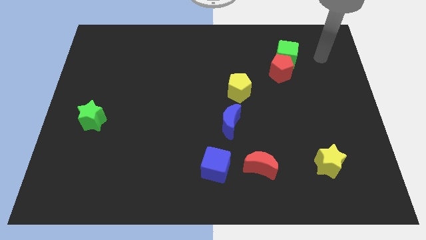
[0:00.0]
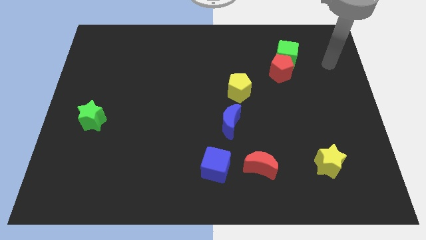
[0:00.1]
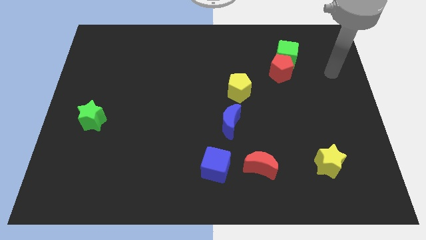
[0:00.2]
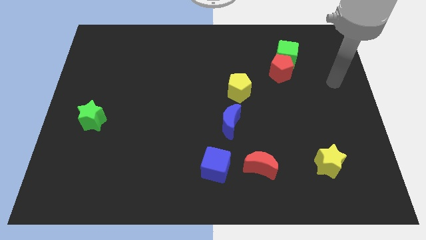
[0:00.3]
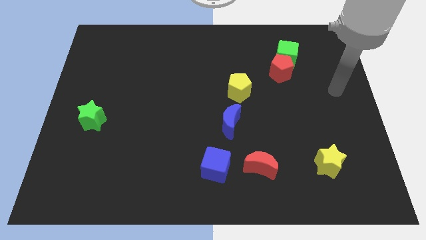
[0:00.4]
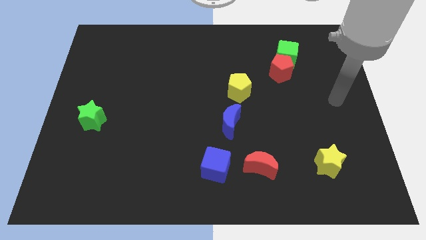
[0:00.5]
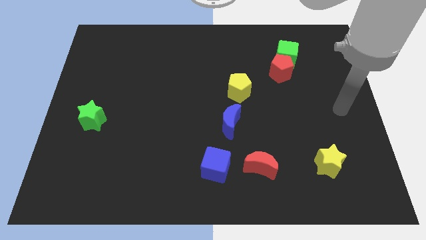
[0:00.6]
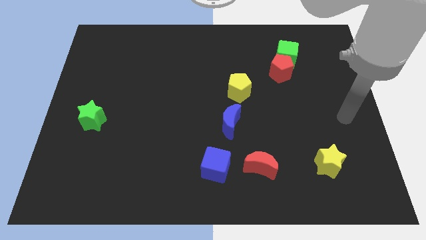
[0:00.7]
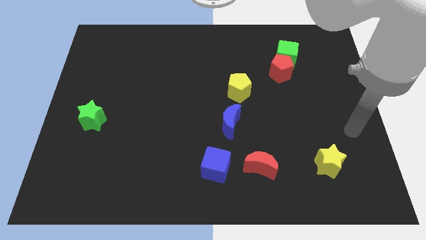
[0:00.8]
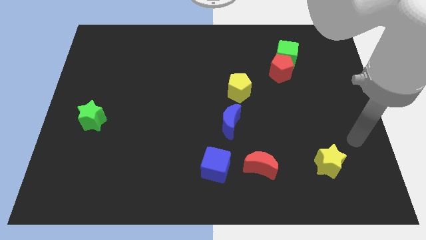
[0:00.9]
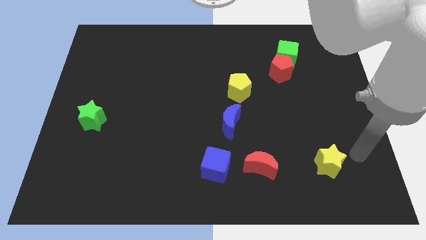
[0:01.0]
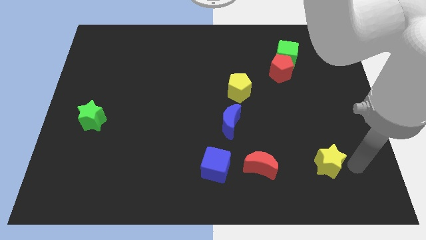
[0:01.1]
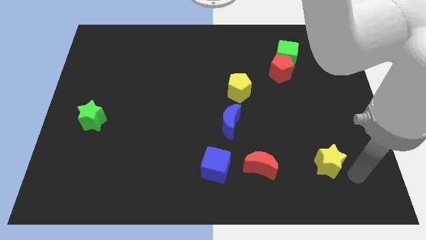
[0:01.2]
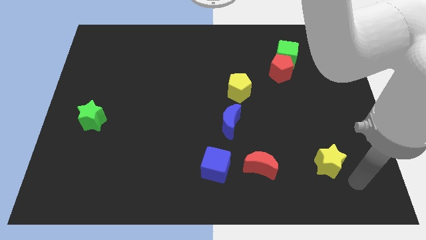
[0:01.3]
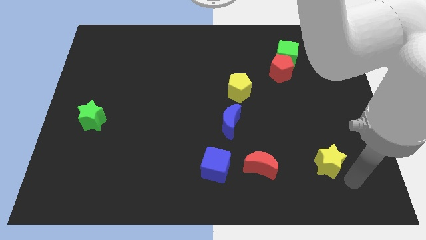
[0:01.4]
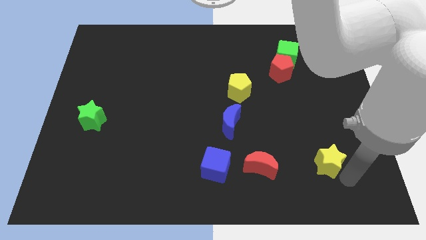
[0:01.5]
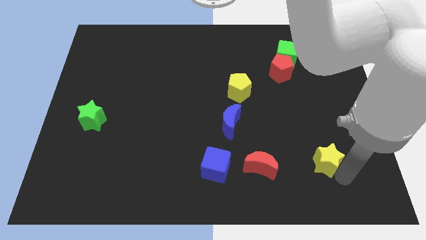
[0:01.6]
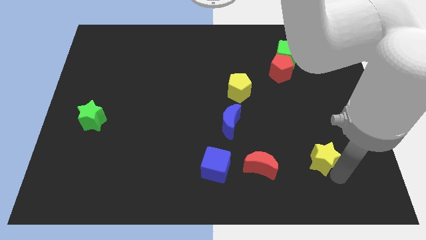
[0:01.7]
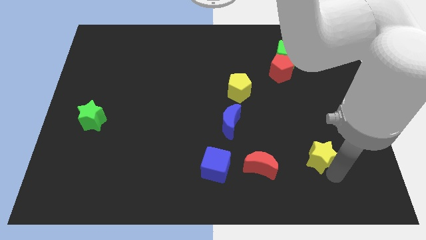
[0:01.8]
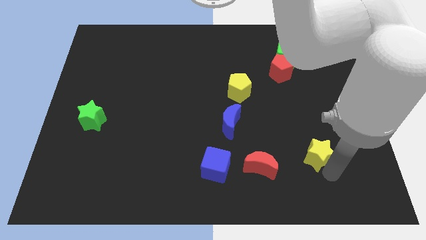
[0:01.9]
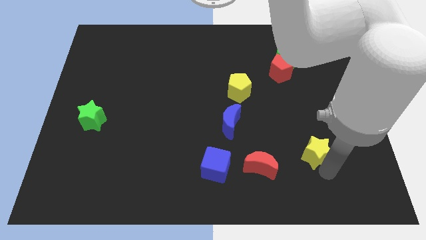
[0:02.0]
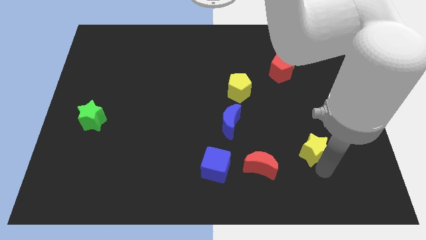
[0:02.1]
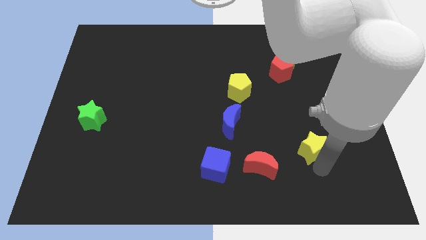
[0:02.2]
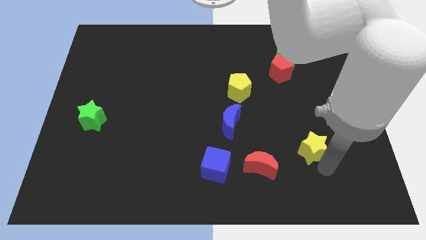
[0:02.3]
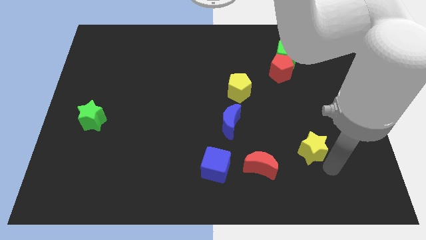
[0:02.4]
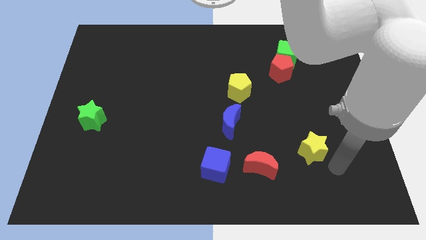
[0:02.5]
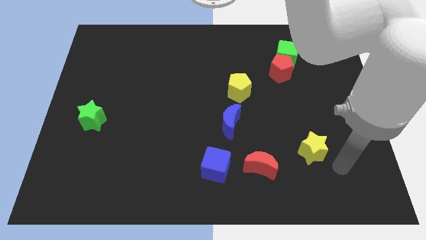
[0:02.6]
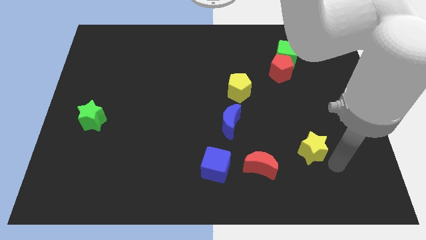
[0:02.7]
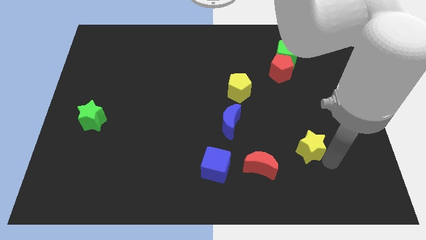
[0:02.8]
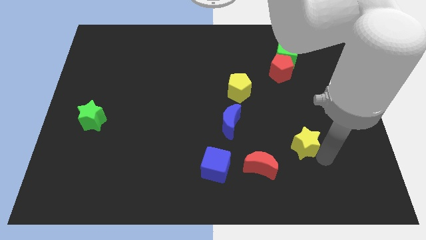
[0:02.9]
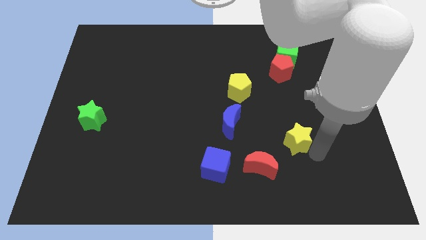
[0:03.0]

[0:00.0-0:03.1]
slightly move the yellow star diagonally up and left

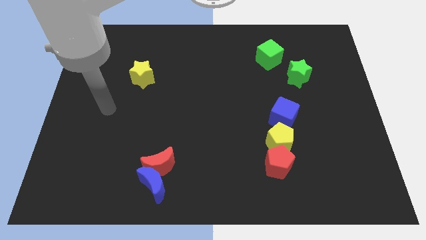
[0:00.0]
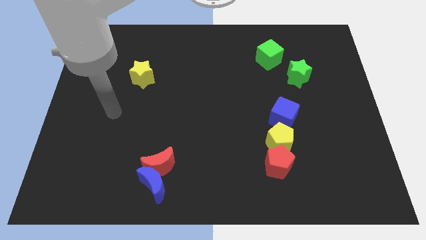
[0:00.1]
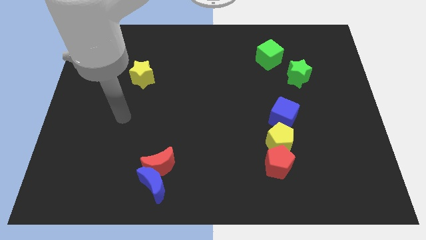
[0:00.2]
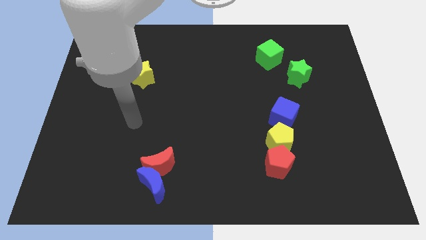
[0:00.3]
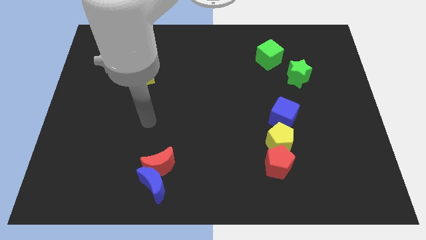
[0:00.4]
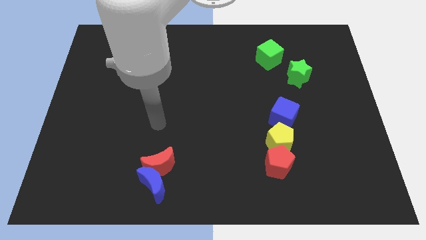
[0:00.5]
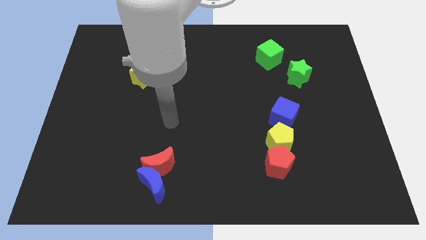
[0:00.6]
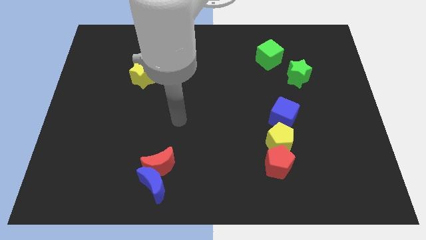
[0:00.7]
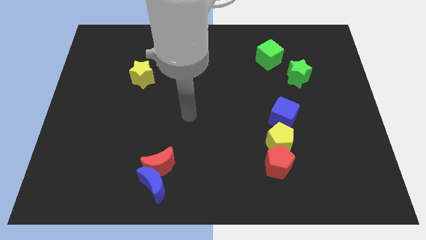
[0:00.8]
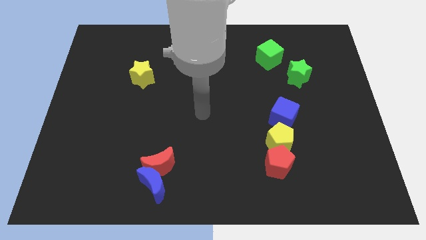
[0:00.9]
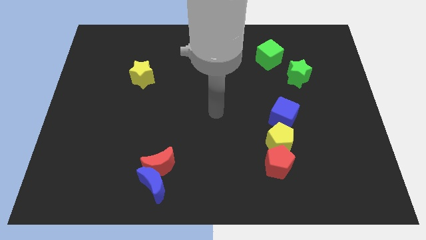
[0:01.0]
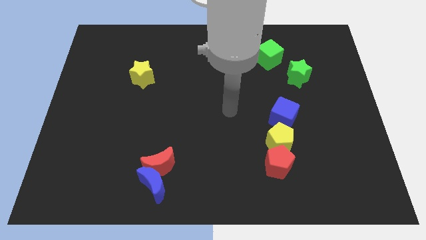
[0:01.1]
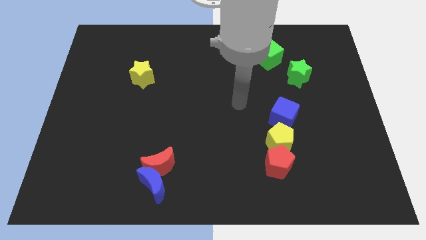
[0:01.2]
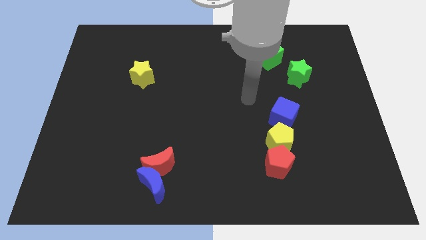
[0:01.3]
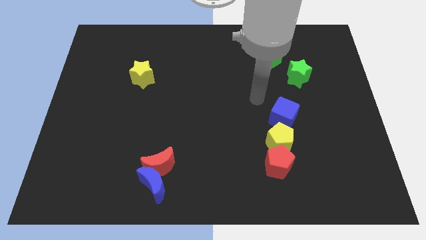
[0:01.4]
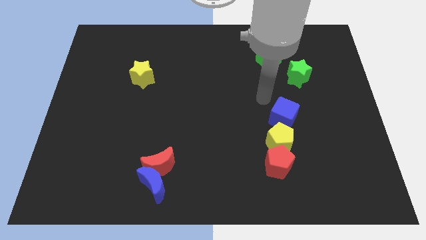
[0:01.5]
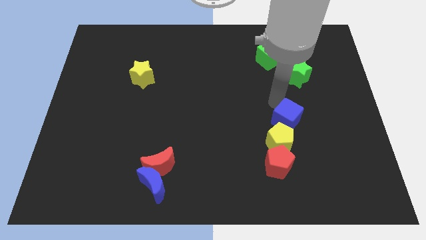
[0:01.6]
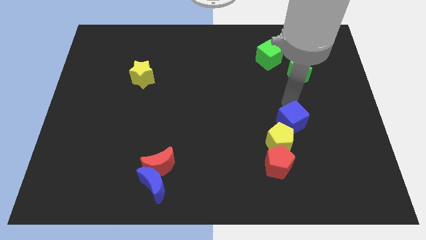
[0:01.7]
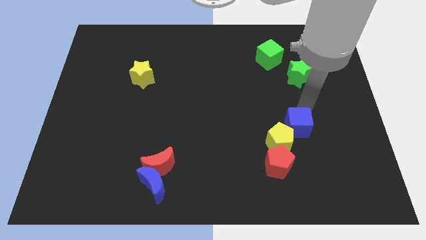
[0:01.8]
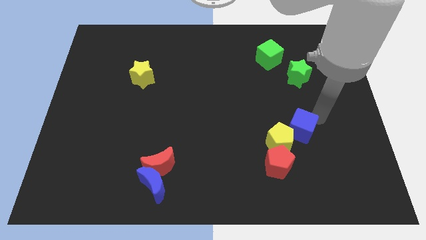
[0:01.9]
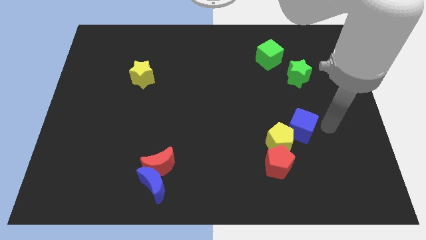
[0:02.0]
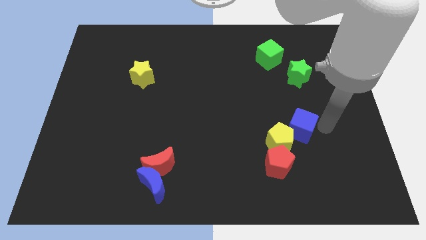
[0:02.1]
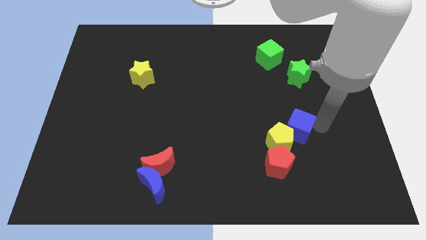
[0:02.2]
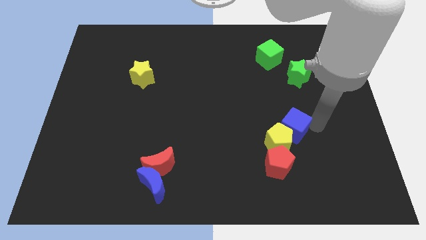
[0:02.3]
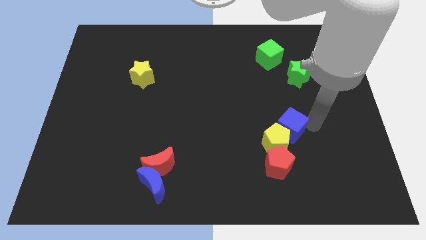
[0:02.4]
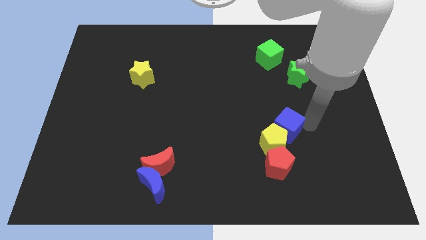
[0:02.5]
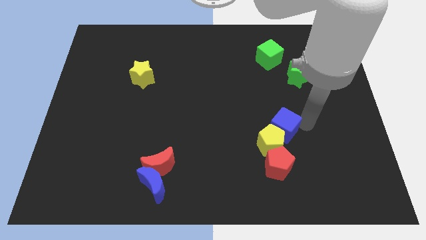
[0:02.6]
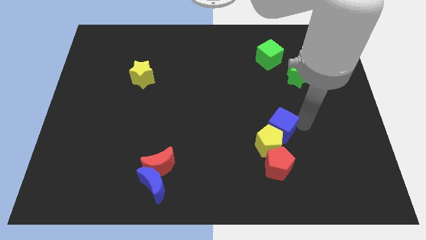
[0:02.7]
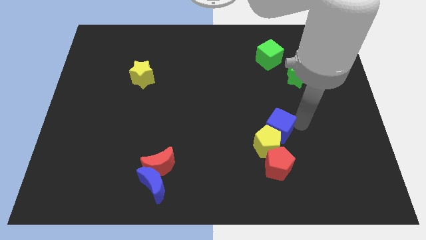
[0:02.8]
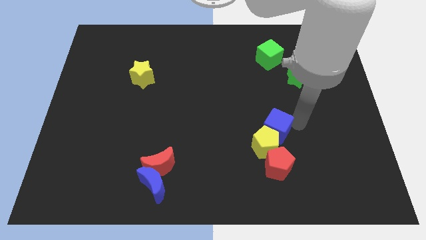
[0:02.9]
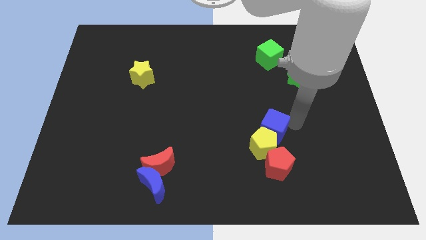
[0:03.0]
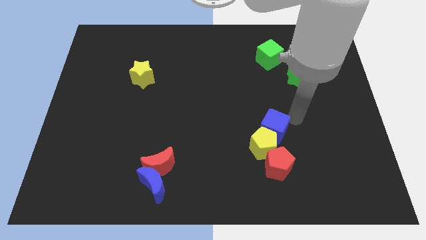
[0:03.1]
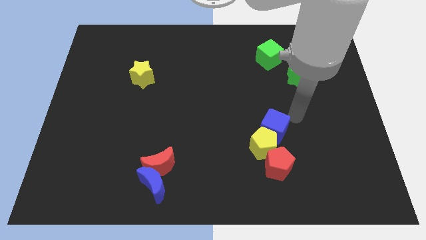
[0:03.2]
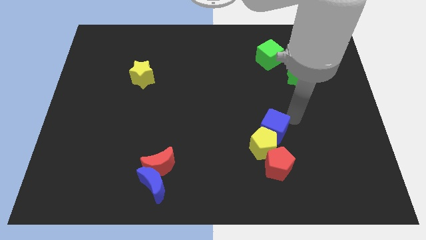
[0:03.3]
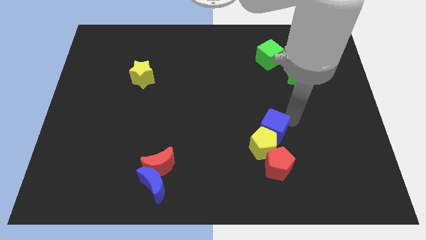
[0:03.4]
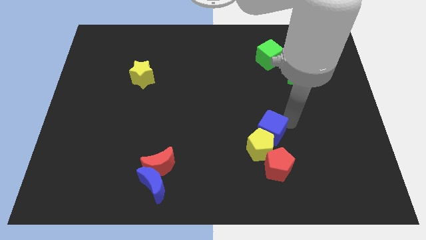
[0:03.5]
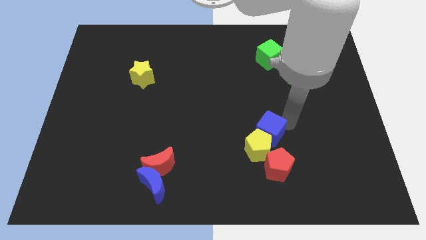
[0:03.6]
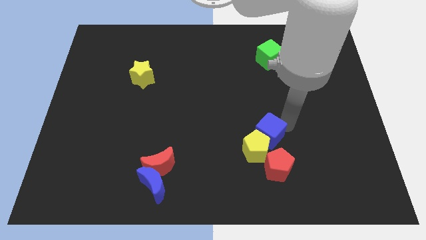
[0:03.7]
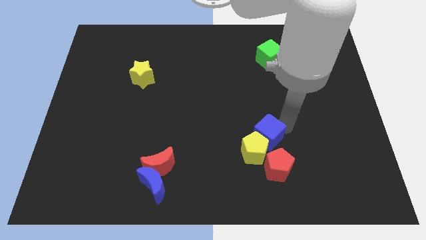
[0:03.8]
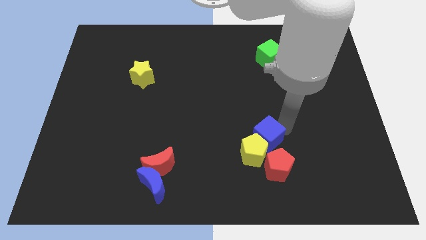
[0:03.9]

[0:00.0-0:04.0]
push the blue cube diagonally down and left somewhat

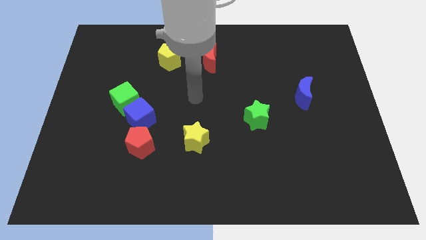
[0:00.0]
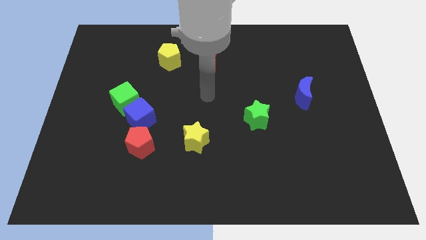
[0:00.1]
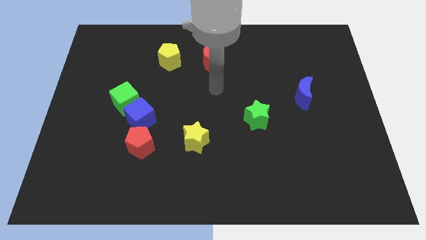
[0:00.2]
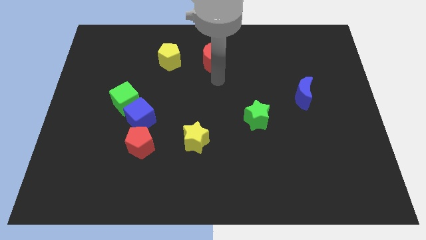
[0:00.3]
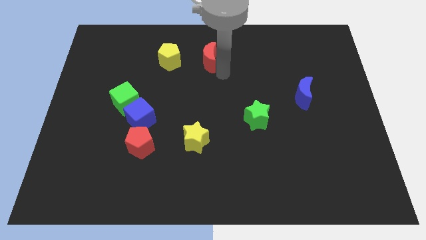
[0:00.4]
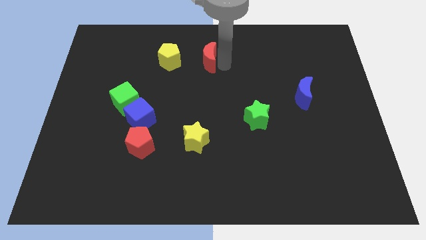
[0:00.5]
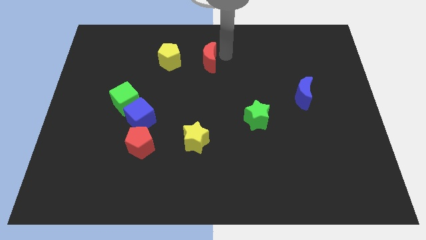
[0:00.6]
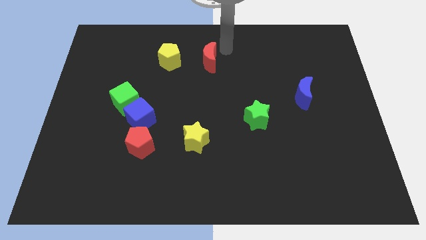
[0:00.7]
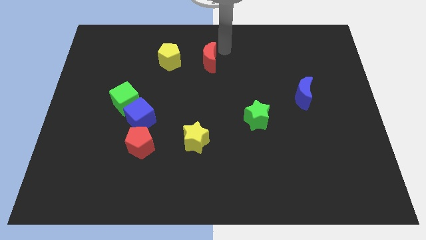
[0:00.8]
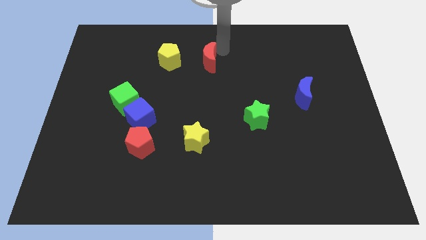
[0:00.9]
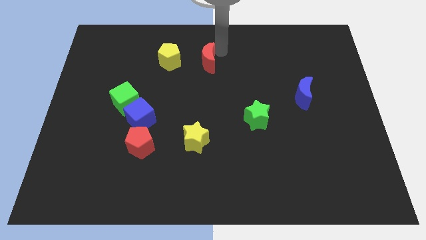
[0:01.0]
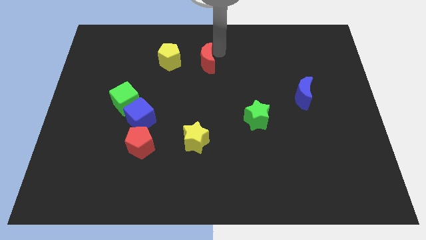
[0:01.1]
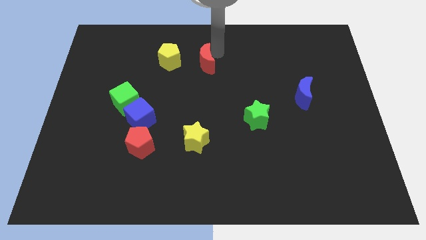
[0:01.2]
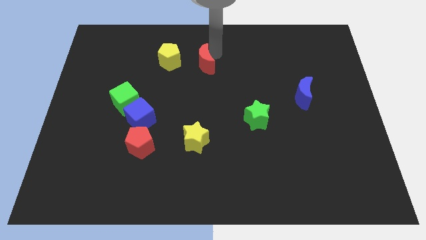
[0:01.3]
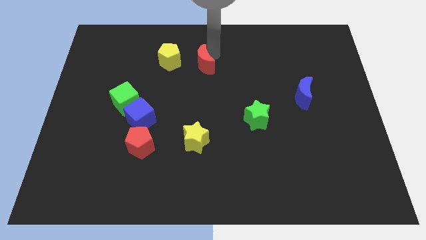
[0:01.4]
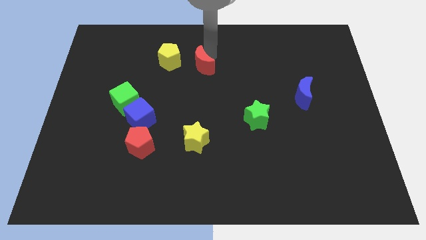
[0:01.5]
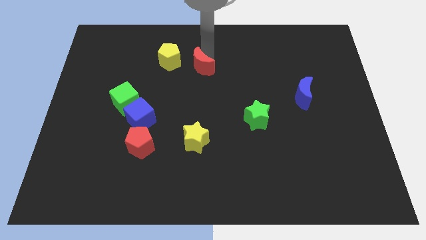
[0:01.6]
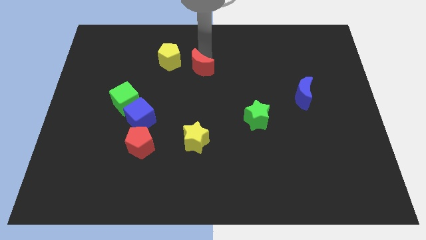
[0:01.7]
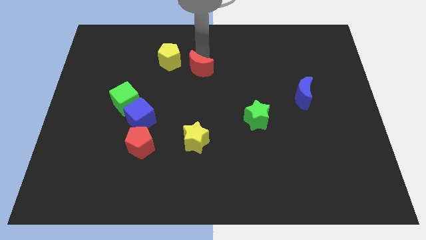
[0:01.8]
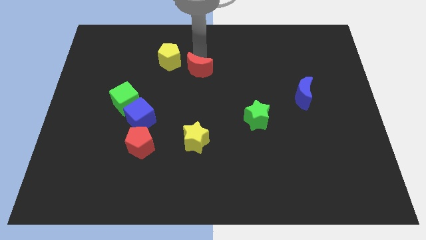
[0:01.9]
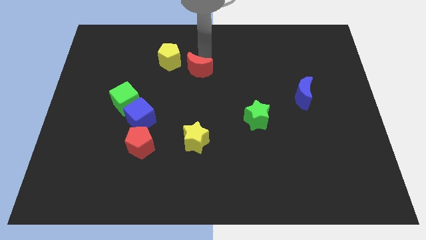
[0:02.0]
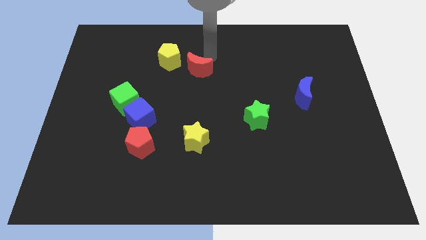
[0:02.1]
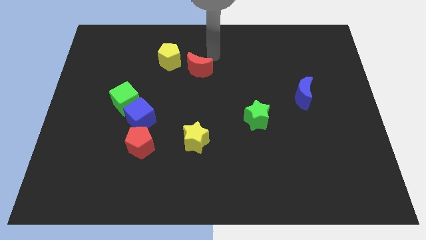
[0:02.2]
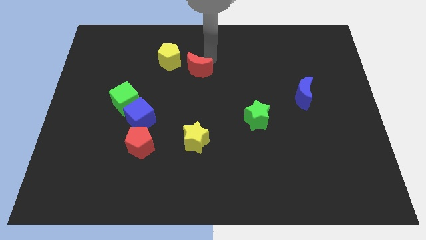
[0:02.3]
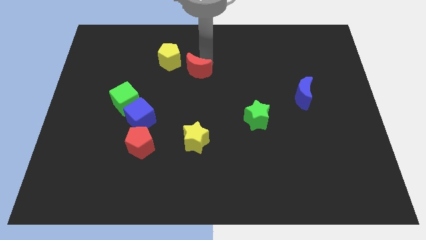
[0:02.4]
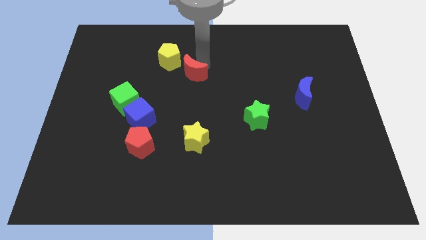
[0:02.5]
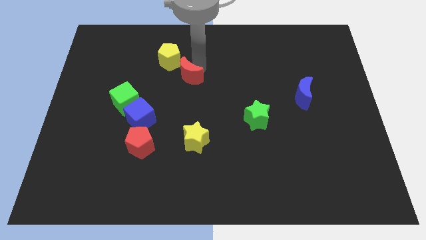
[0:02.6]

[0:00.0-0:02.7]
slightly push the red moon downwards and to the left diagonally
